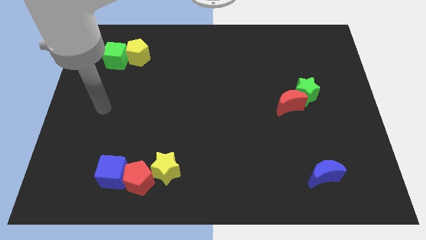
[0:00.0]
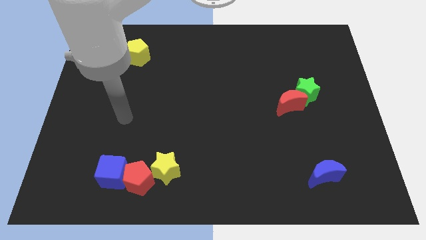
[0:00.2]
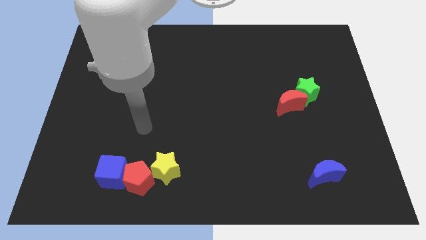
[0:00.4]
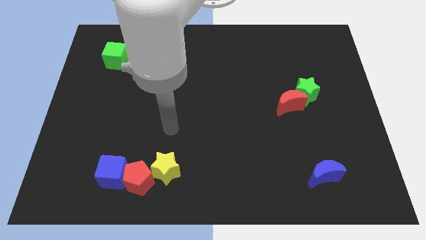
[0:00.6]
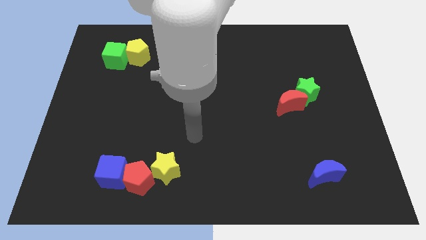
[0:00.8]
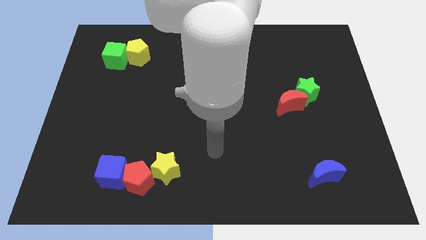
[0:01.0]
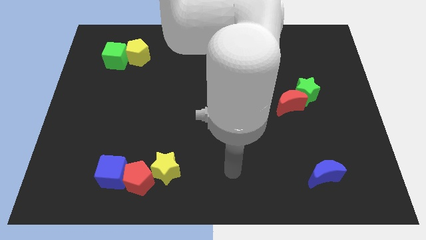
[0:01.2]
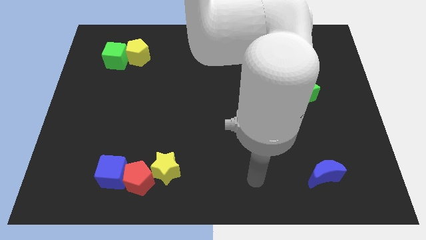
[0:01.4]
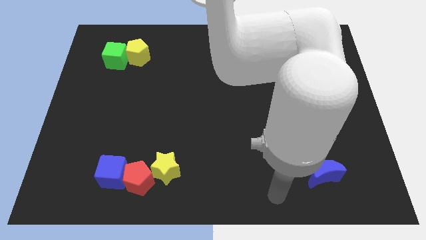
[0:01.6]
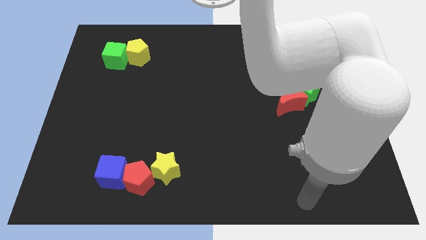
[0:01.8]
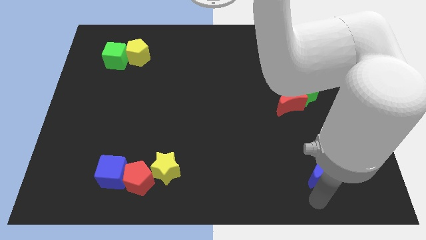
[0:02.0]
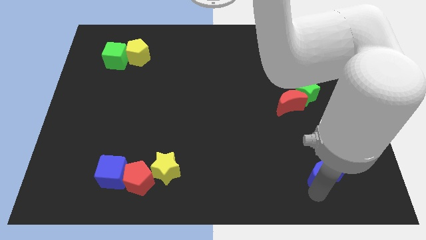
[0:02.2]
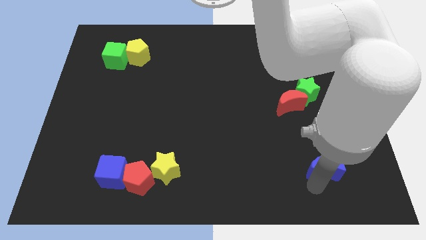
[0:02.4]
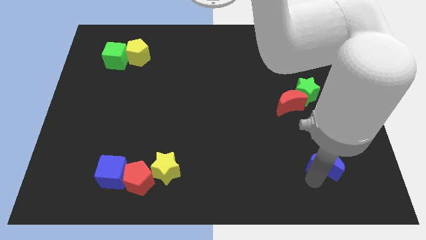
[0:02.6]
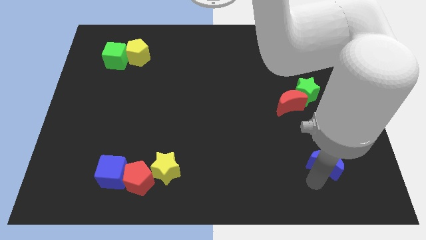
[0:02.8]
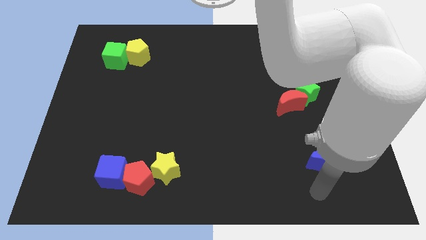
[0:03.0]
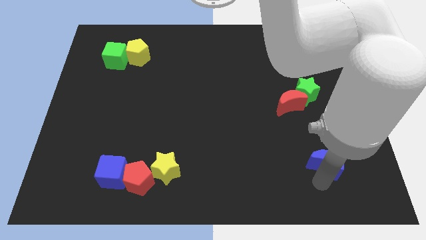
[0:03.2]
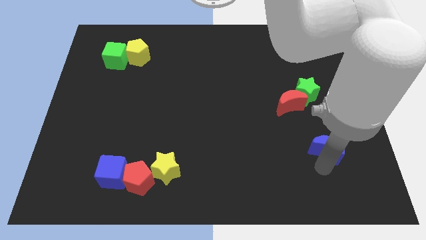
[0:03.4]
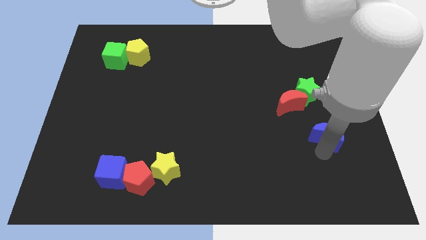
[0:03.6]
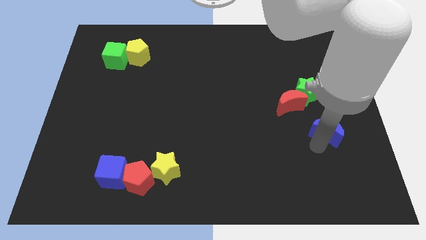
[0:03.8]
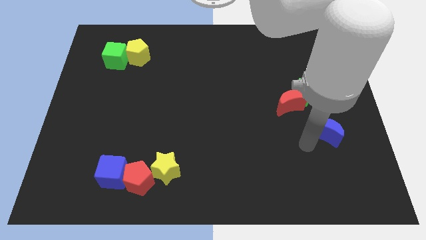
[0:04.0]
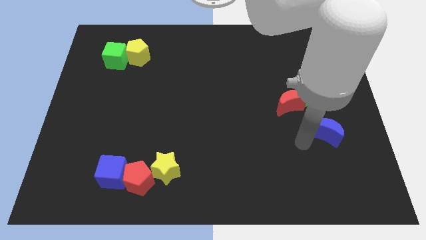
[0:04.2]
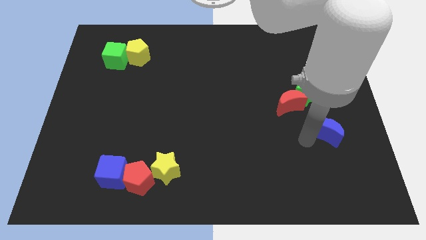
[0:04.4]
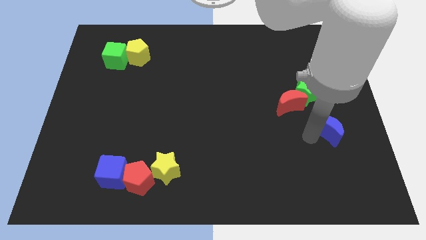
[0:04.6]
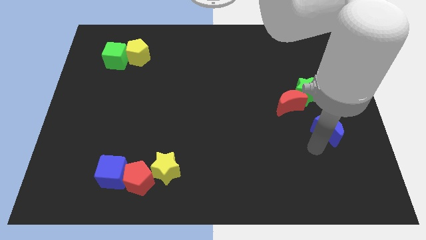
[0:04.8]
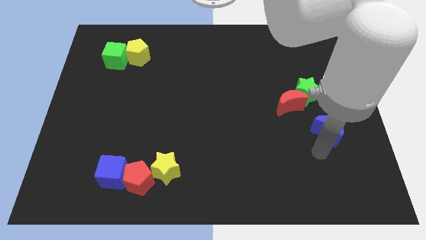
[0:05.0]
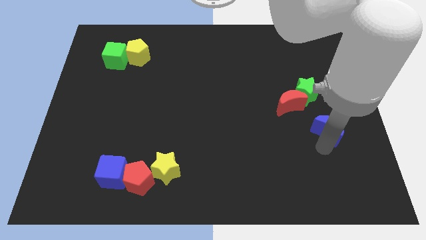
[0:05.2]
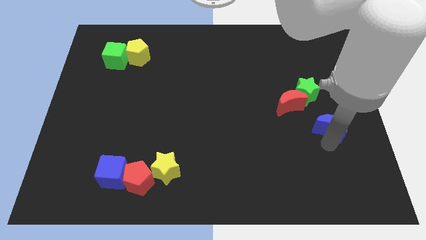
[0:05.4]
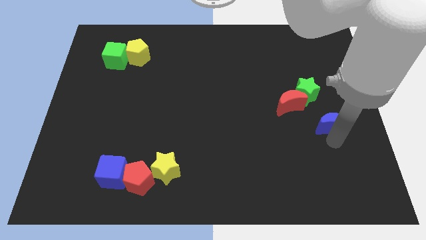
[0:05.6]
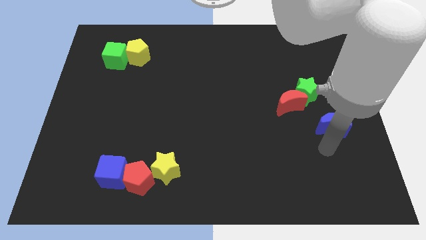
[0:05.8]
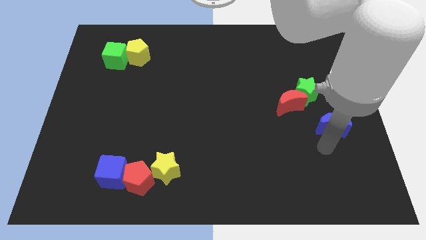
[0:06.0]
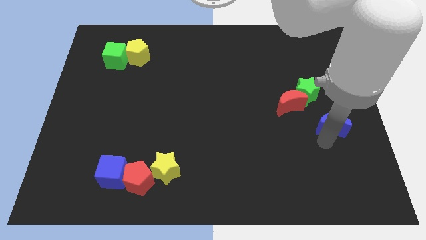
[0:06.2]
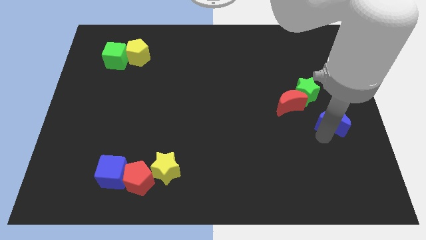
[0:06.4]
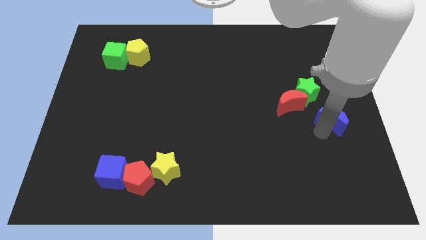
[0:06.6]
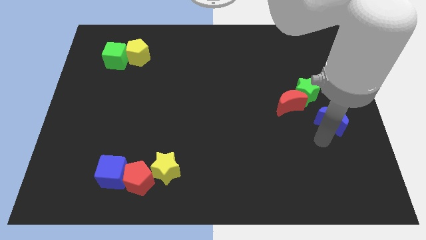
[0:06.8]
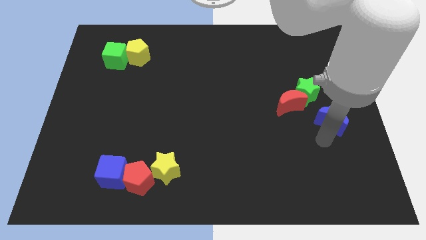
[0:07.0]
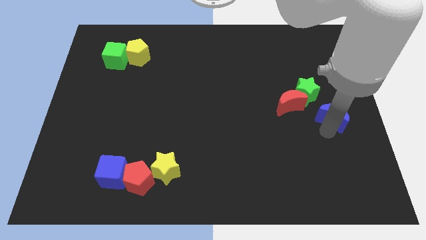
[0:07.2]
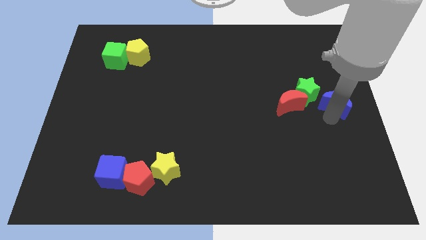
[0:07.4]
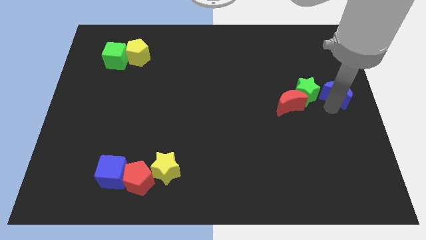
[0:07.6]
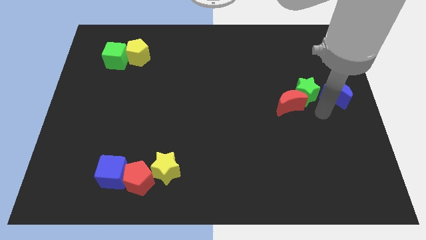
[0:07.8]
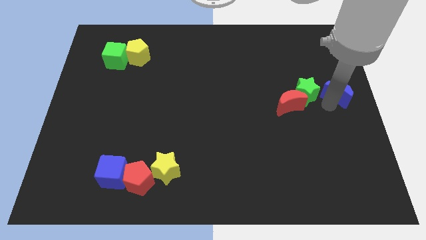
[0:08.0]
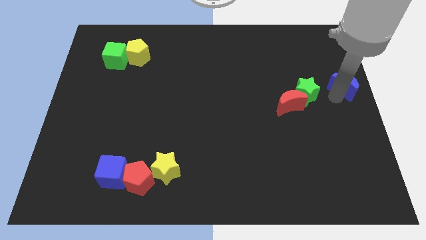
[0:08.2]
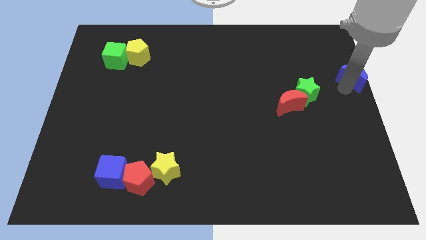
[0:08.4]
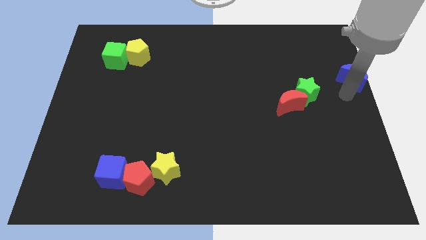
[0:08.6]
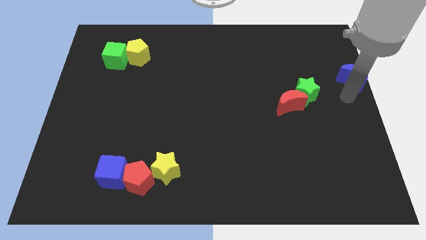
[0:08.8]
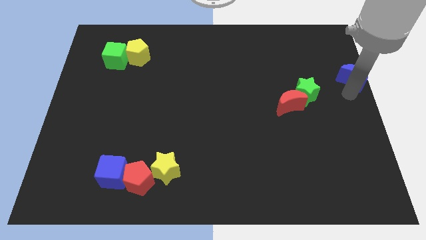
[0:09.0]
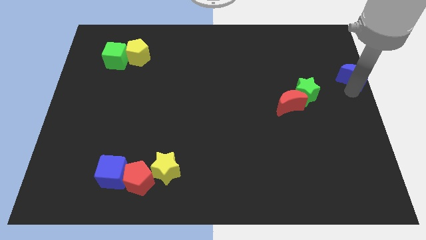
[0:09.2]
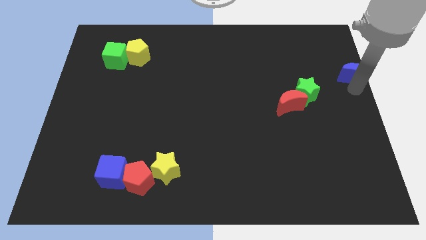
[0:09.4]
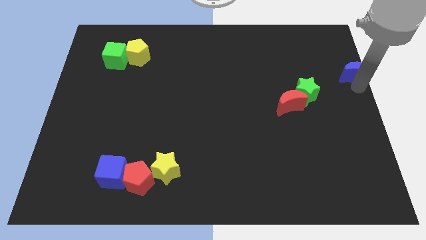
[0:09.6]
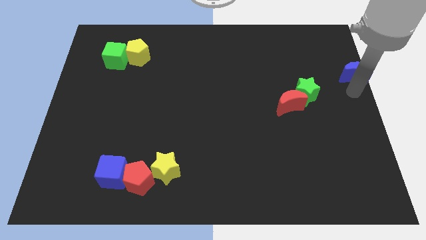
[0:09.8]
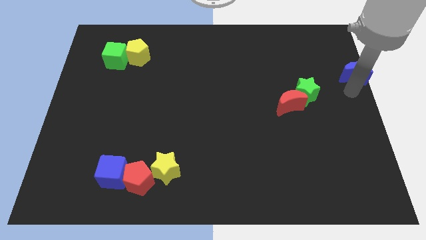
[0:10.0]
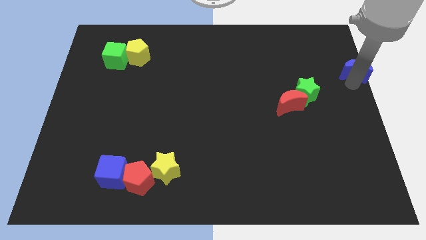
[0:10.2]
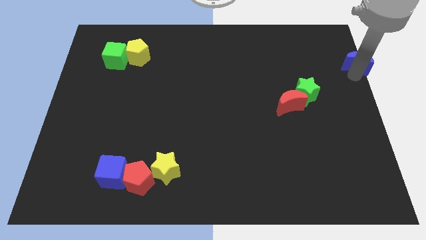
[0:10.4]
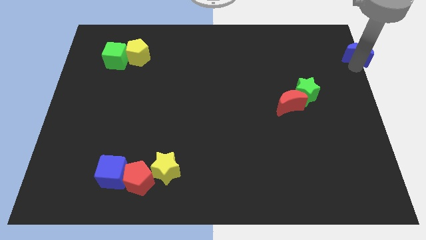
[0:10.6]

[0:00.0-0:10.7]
move the blue moon to the top right corner

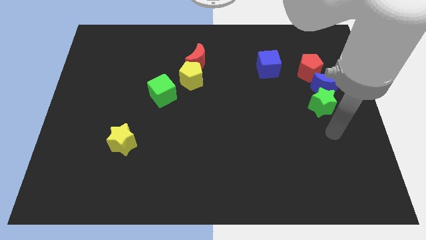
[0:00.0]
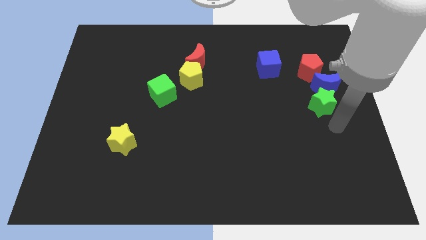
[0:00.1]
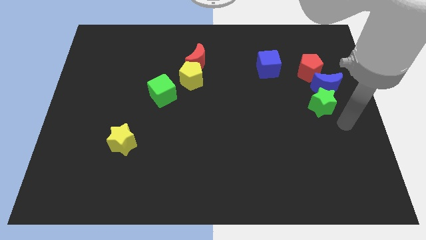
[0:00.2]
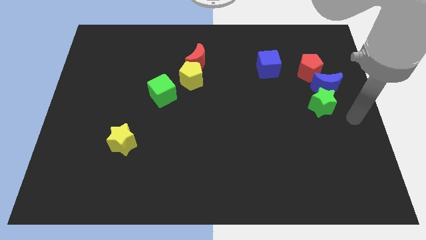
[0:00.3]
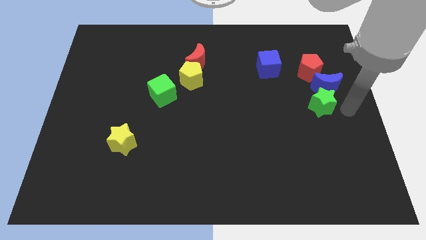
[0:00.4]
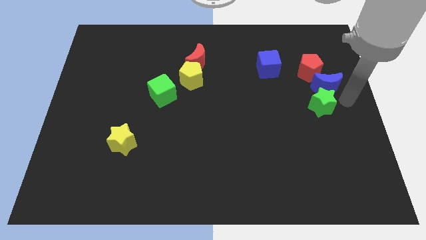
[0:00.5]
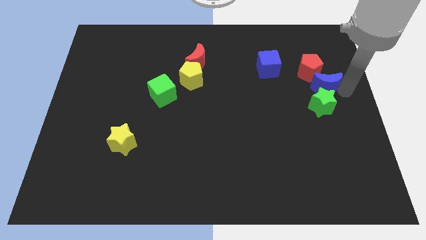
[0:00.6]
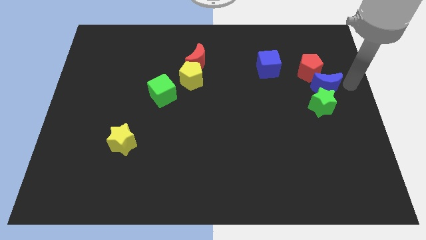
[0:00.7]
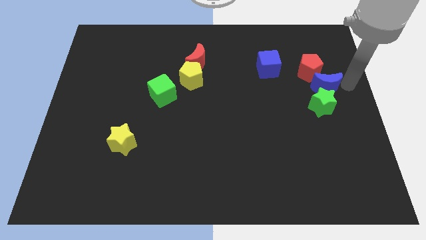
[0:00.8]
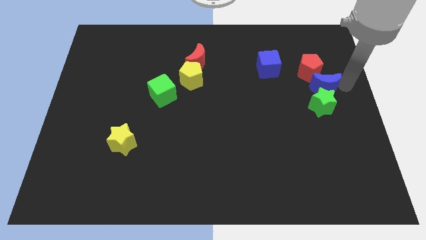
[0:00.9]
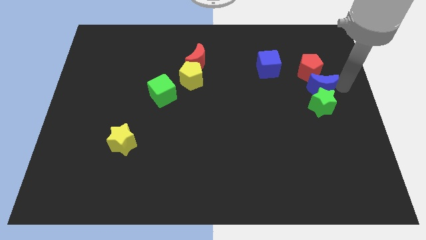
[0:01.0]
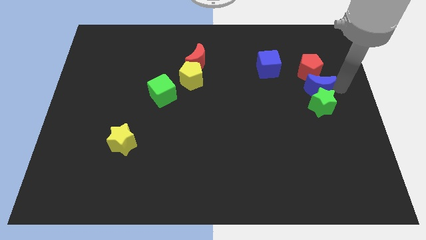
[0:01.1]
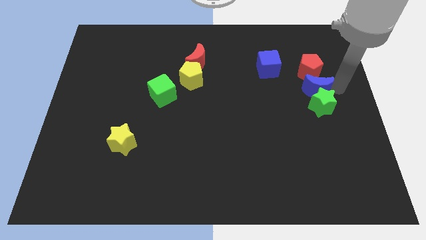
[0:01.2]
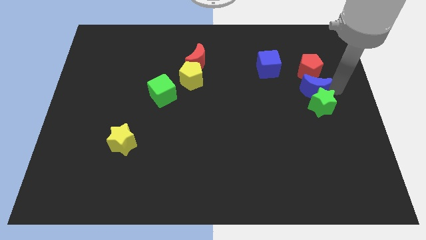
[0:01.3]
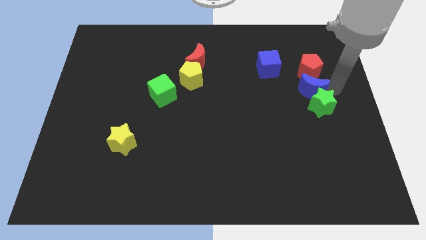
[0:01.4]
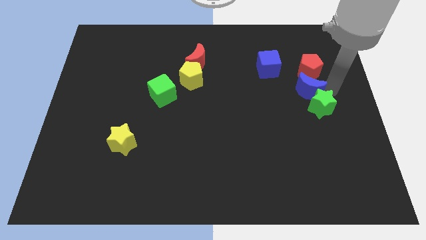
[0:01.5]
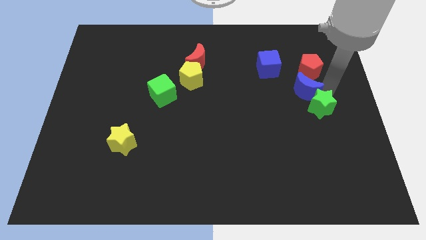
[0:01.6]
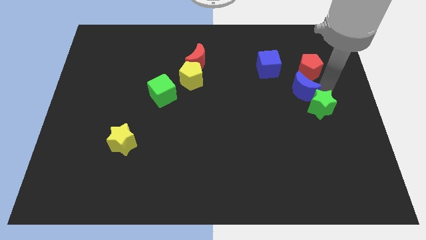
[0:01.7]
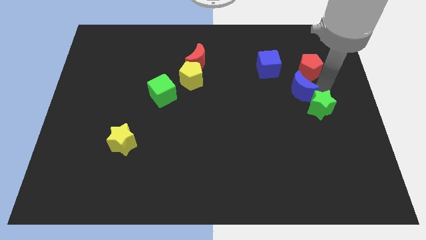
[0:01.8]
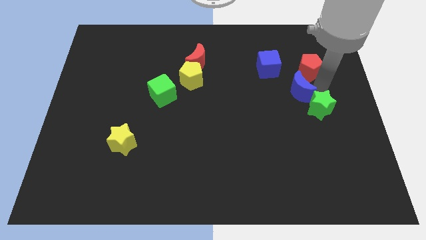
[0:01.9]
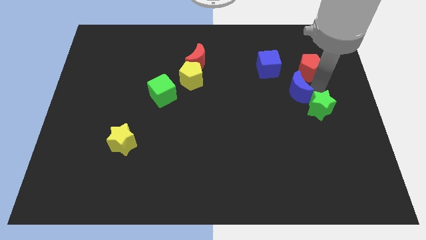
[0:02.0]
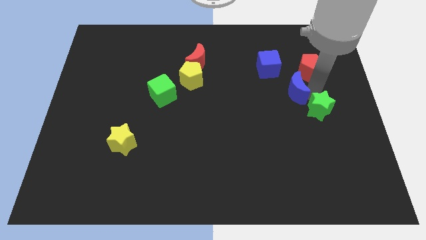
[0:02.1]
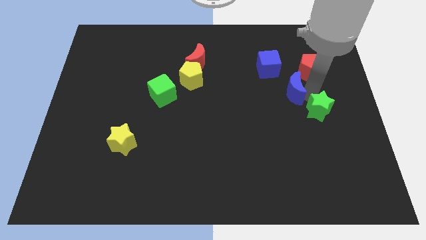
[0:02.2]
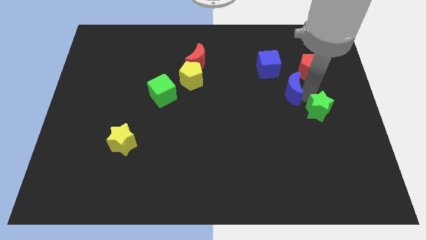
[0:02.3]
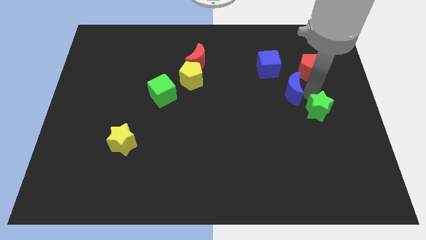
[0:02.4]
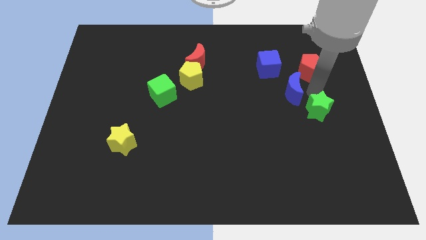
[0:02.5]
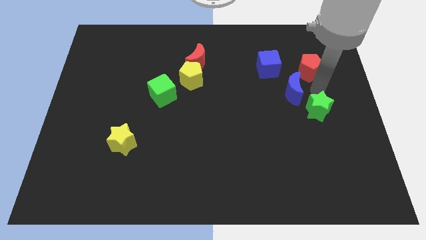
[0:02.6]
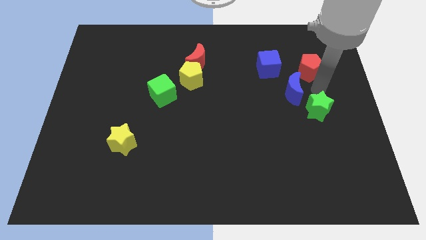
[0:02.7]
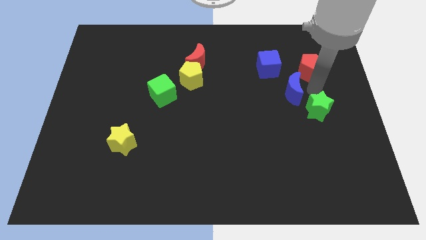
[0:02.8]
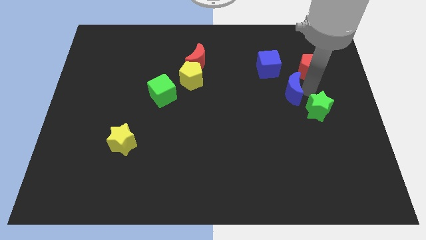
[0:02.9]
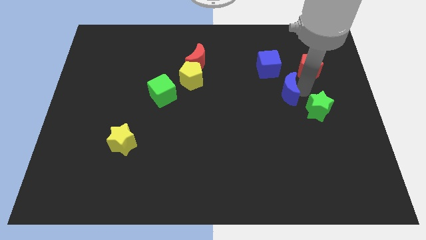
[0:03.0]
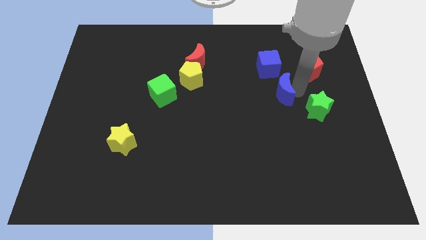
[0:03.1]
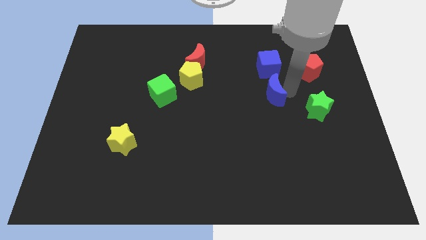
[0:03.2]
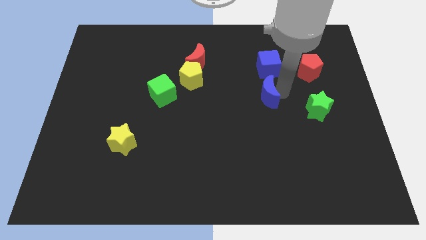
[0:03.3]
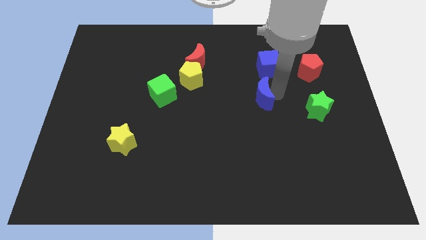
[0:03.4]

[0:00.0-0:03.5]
move the blue moon to the middle
